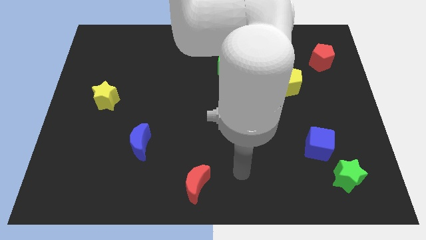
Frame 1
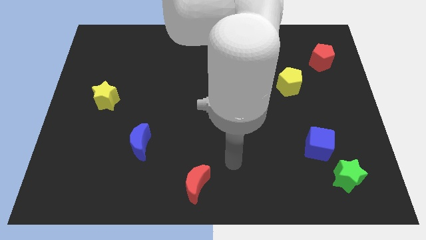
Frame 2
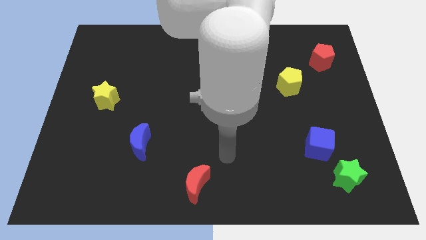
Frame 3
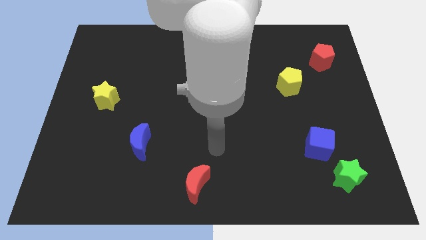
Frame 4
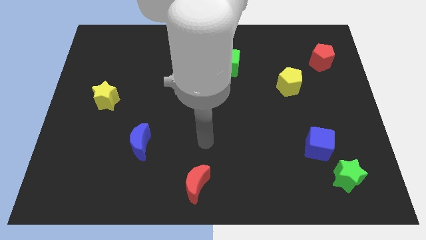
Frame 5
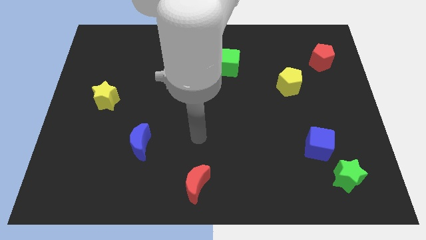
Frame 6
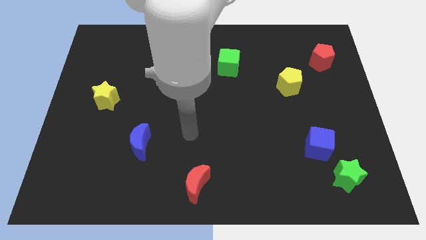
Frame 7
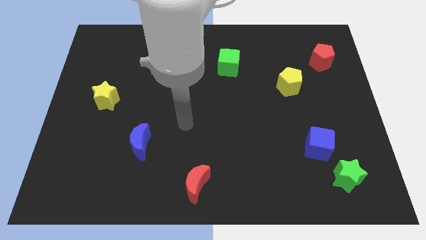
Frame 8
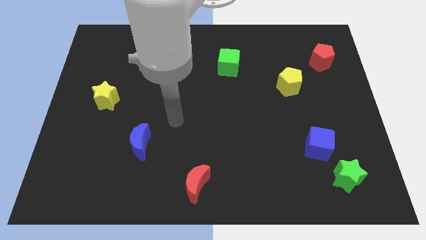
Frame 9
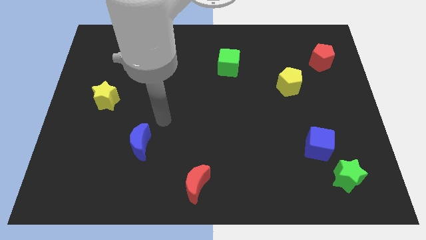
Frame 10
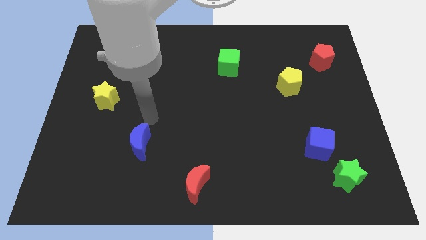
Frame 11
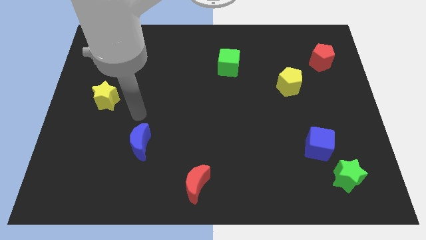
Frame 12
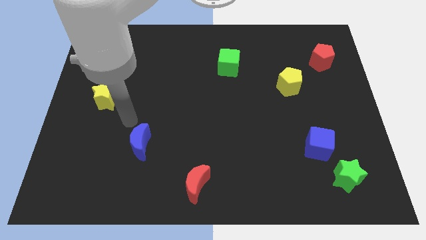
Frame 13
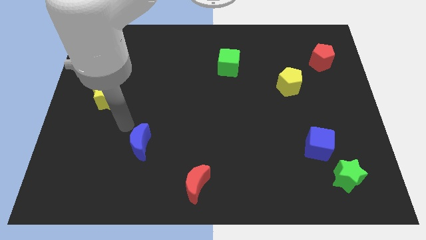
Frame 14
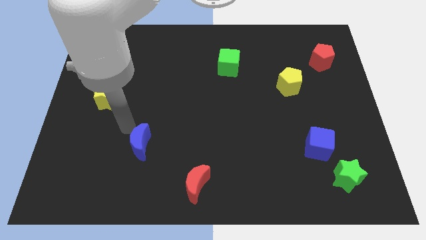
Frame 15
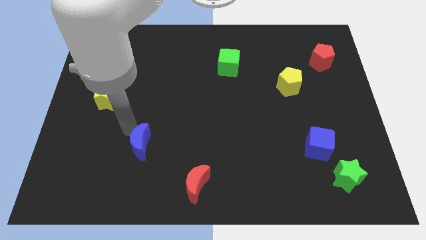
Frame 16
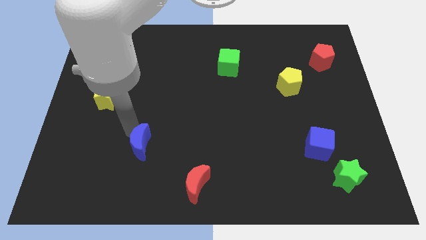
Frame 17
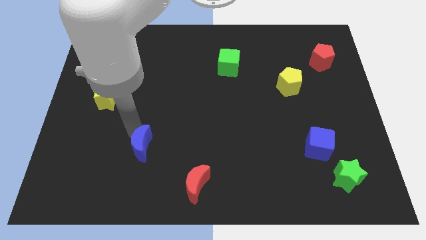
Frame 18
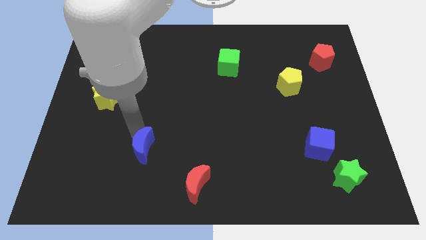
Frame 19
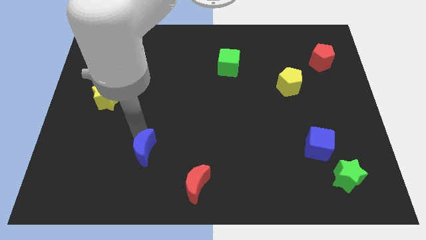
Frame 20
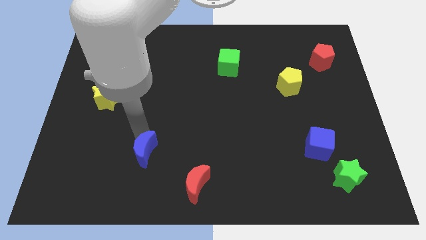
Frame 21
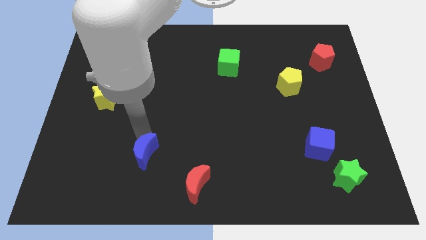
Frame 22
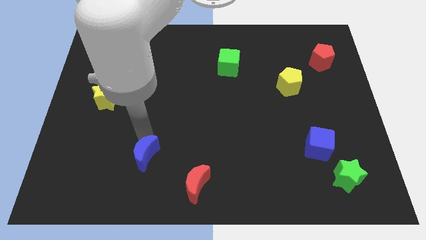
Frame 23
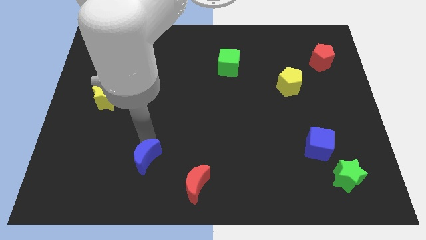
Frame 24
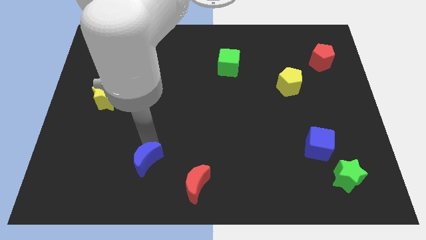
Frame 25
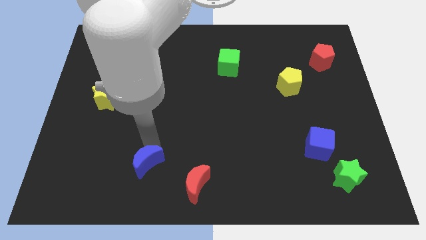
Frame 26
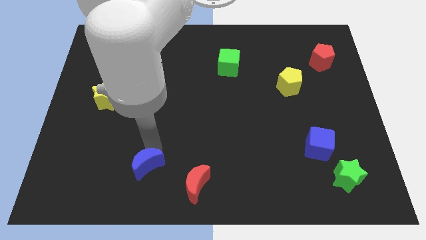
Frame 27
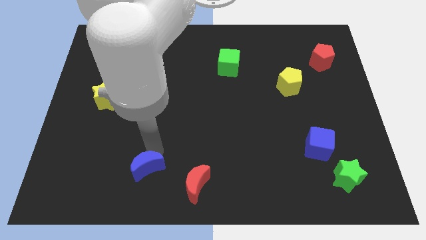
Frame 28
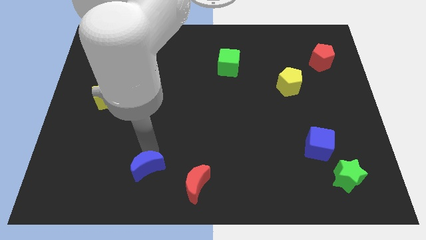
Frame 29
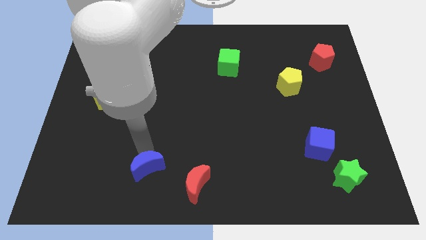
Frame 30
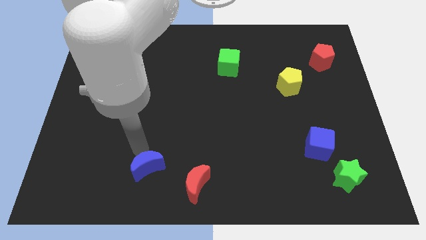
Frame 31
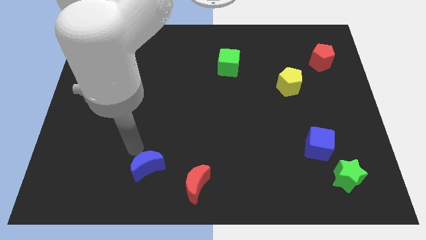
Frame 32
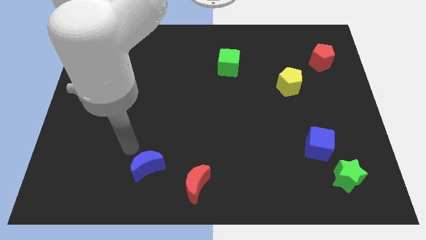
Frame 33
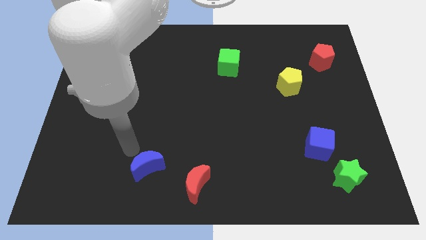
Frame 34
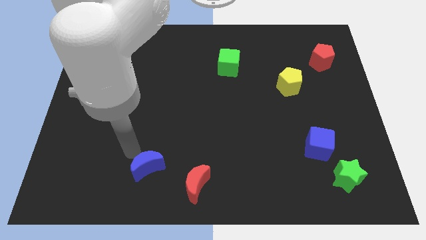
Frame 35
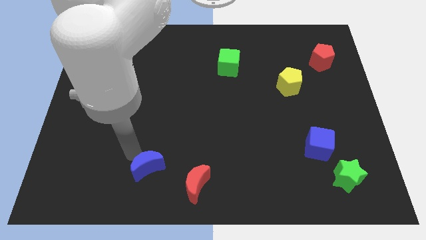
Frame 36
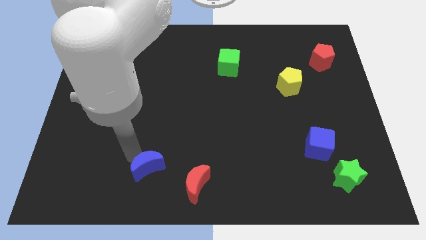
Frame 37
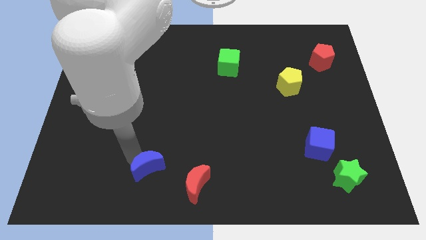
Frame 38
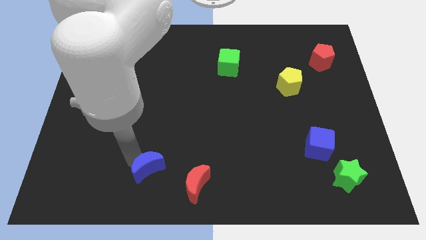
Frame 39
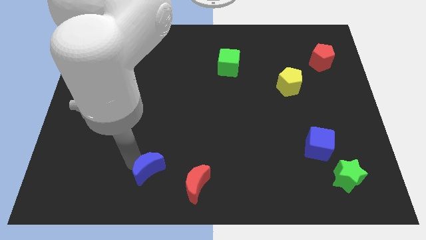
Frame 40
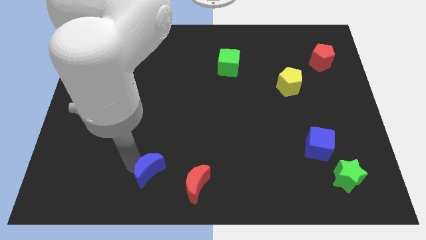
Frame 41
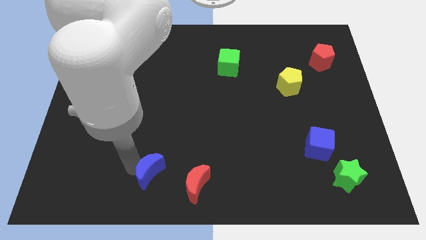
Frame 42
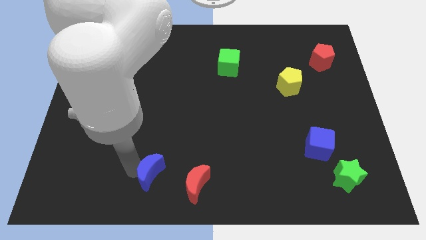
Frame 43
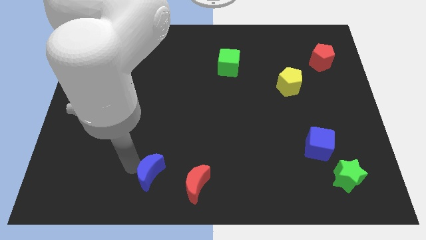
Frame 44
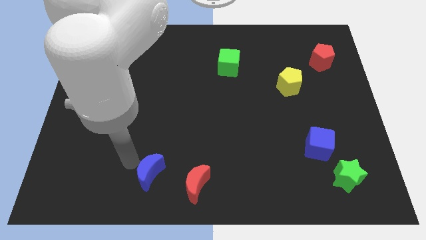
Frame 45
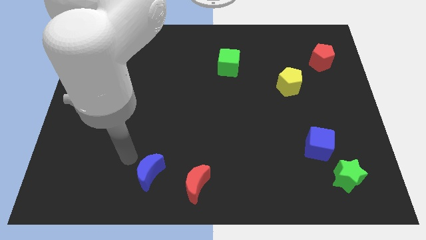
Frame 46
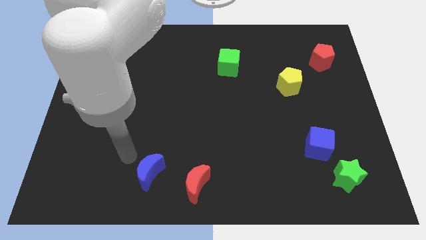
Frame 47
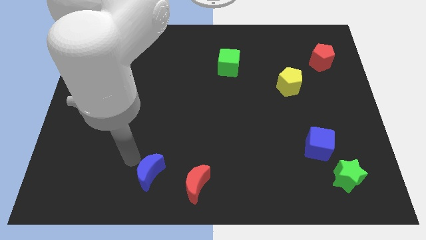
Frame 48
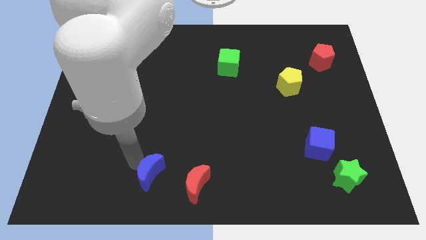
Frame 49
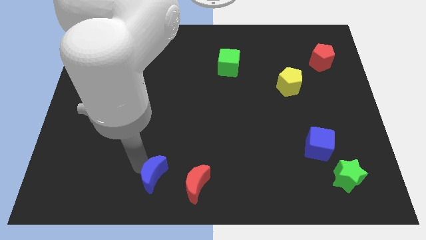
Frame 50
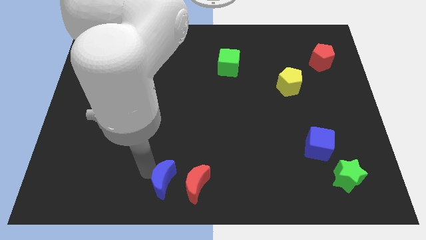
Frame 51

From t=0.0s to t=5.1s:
move the blue moon to the bottom side

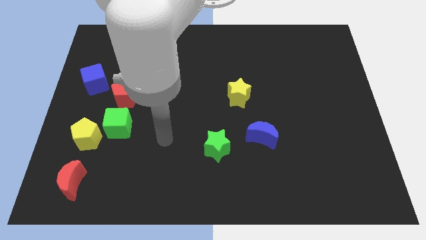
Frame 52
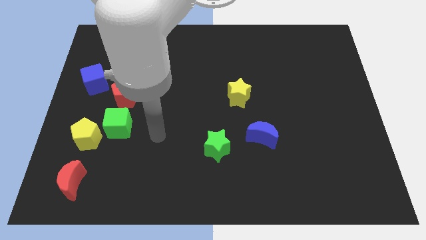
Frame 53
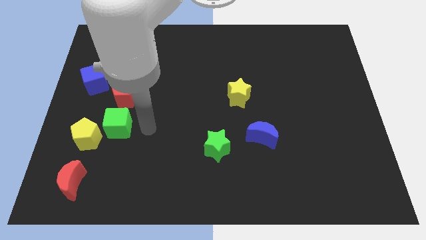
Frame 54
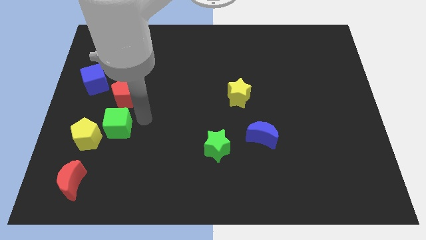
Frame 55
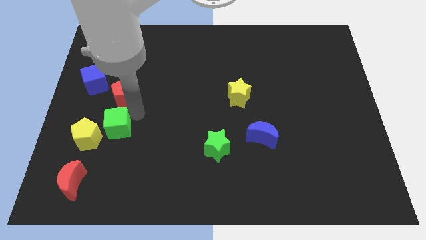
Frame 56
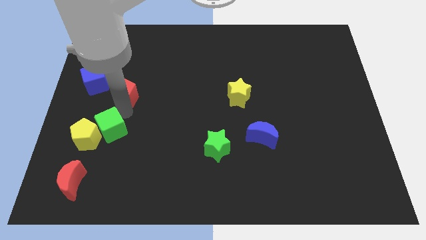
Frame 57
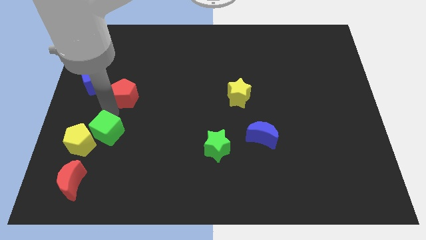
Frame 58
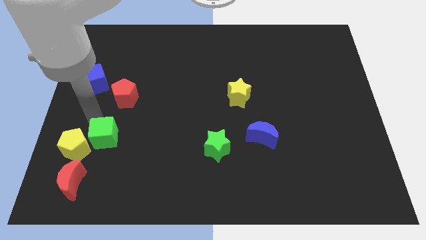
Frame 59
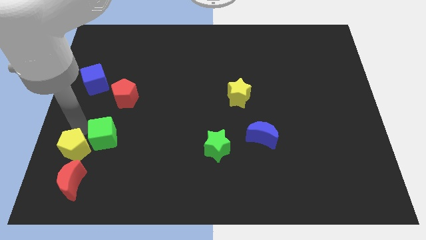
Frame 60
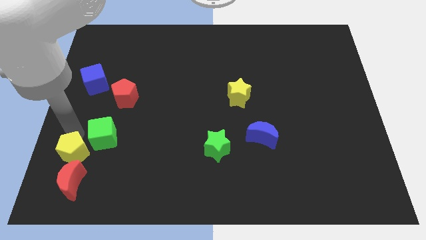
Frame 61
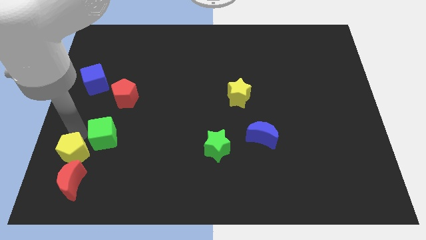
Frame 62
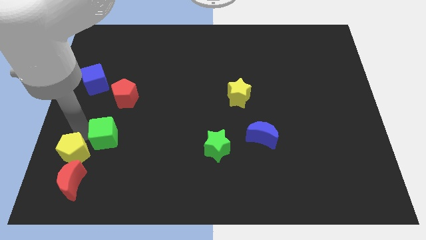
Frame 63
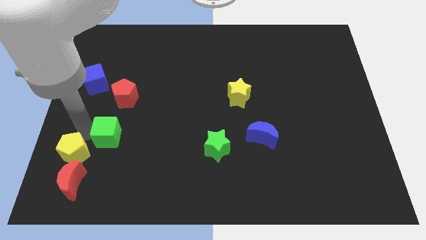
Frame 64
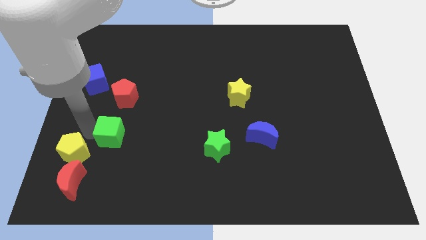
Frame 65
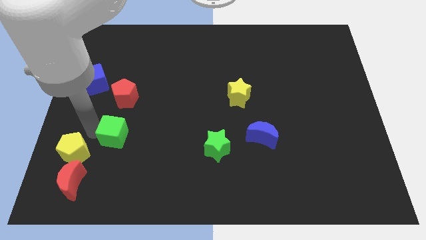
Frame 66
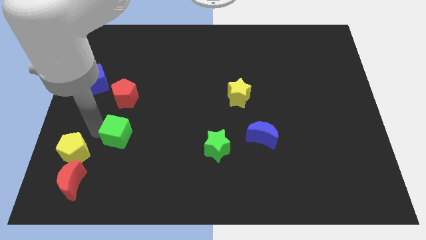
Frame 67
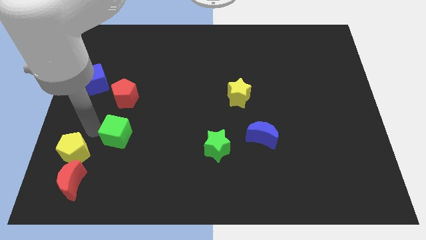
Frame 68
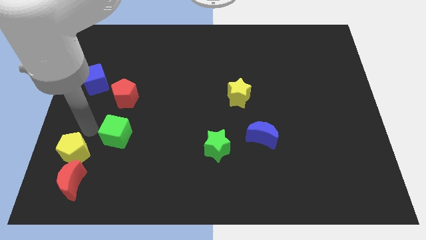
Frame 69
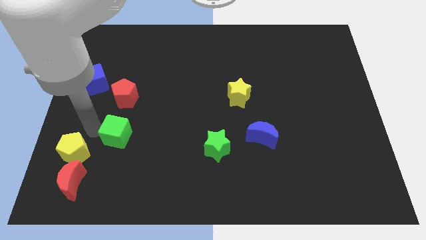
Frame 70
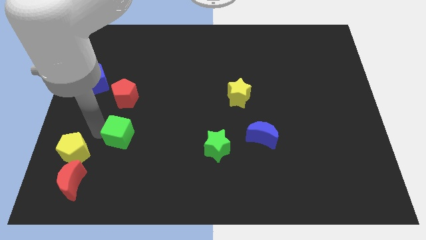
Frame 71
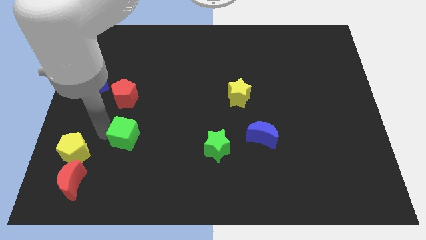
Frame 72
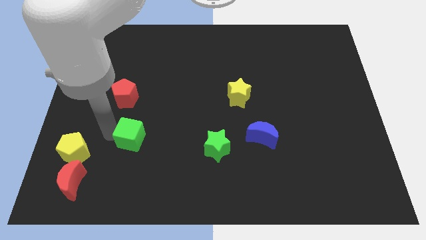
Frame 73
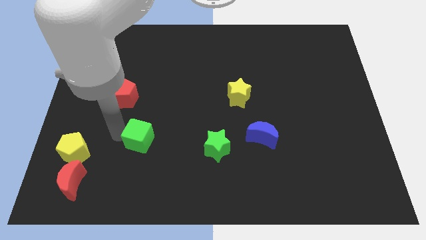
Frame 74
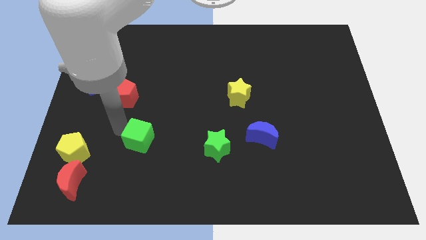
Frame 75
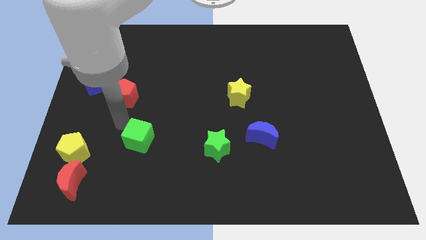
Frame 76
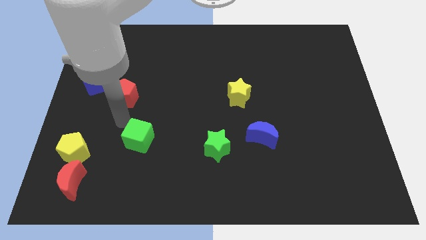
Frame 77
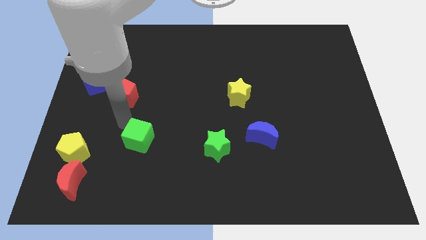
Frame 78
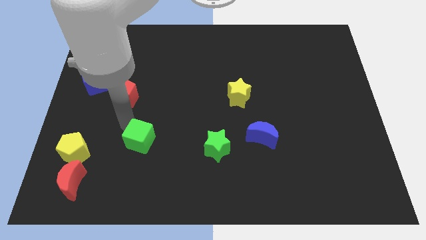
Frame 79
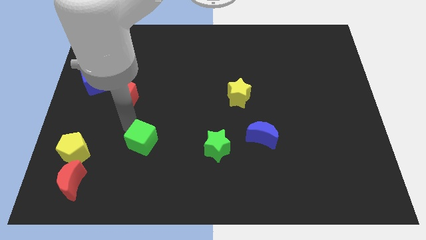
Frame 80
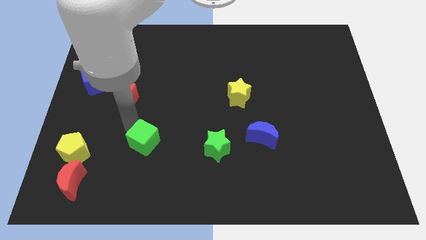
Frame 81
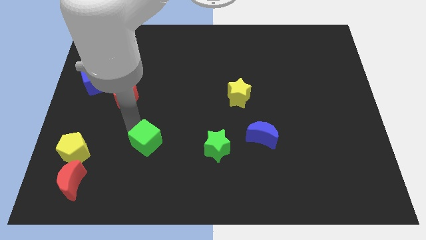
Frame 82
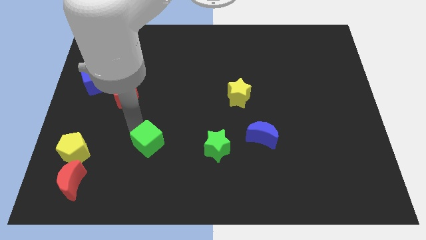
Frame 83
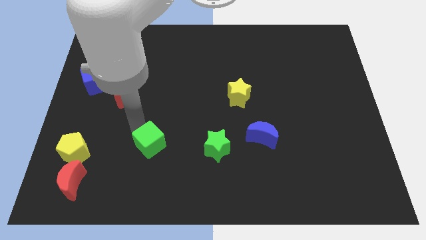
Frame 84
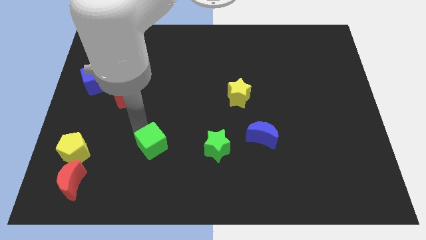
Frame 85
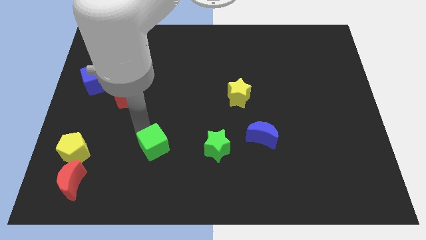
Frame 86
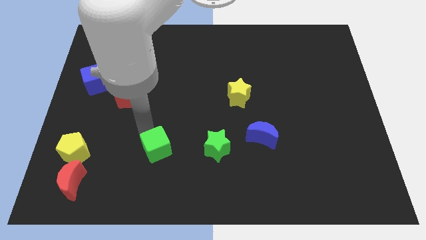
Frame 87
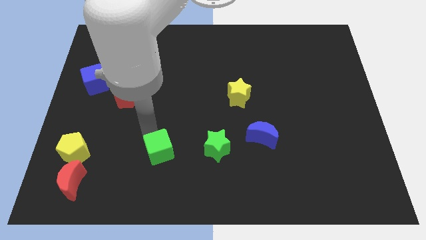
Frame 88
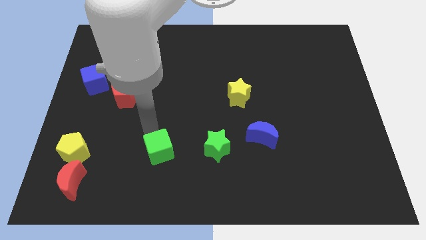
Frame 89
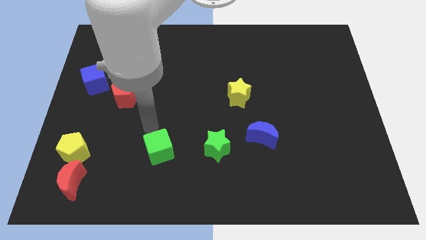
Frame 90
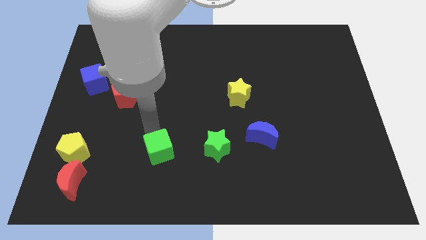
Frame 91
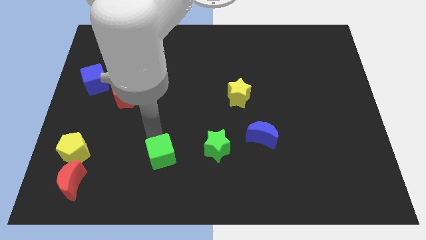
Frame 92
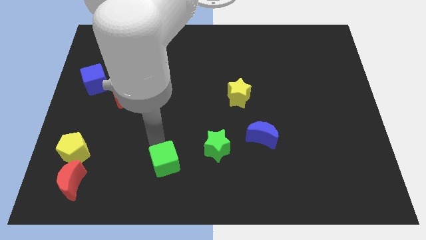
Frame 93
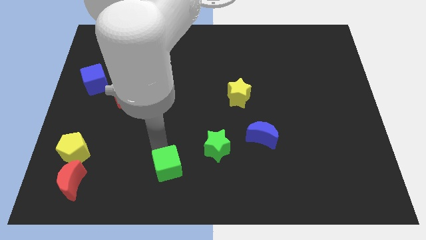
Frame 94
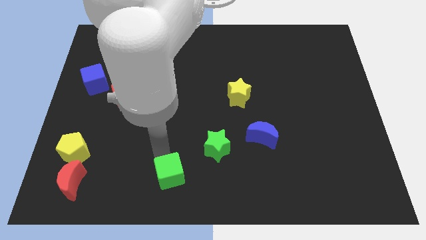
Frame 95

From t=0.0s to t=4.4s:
push the green cube to the bottom side
